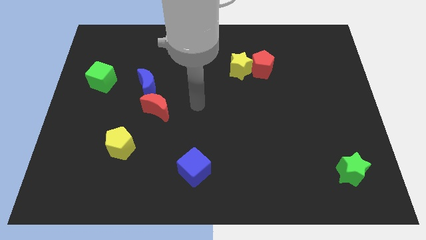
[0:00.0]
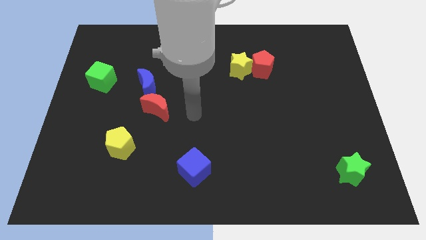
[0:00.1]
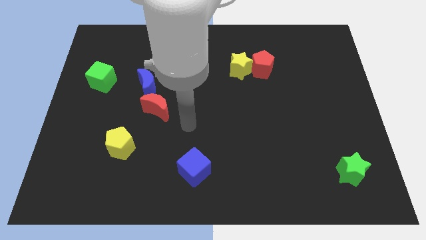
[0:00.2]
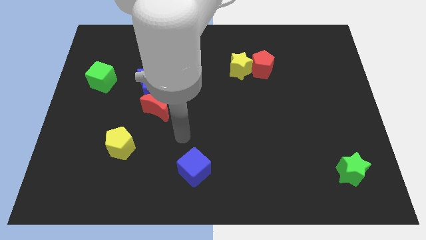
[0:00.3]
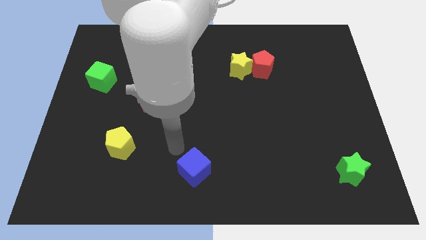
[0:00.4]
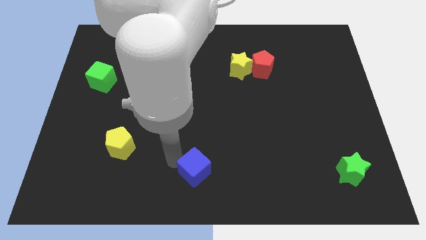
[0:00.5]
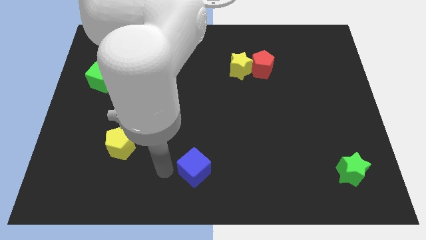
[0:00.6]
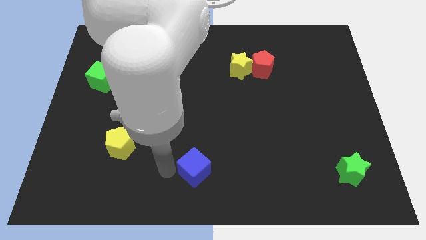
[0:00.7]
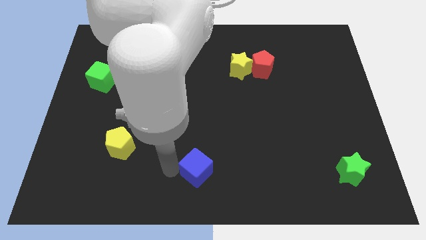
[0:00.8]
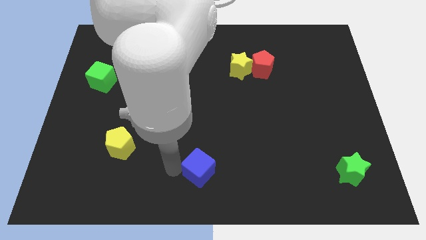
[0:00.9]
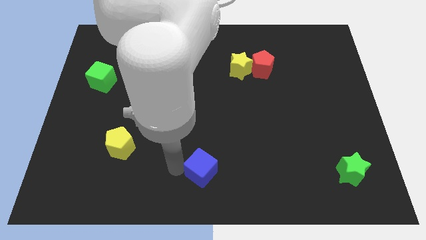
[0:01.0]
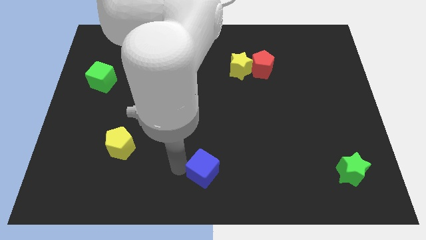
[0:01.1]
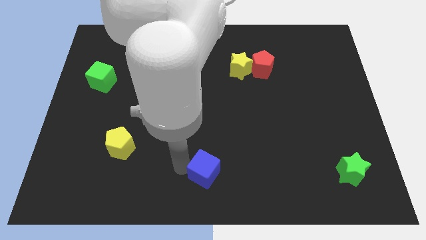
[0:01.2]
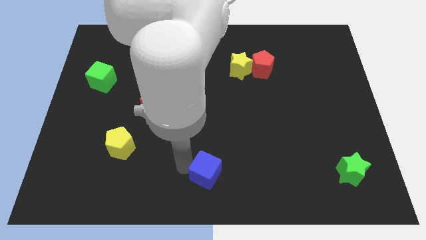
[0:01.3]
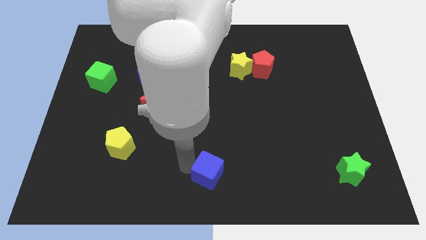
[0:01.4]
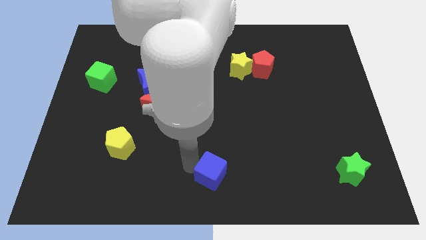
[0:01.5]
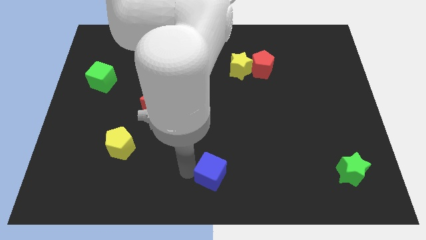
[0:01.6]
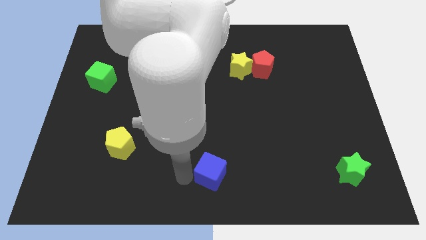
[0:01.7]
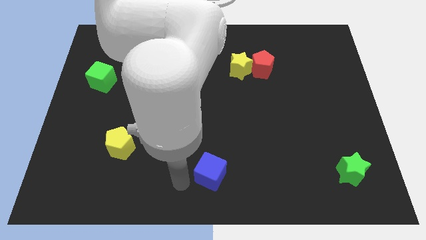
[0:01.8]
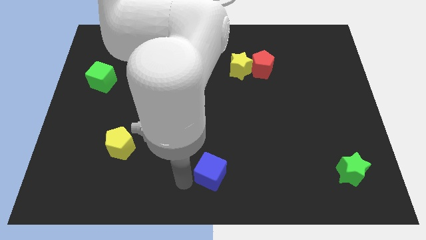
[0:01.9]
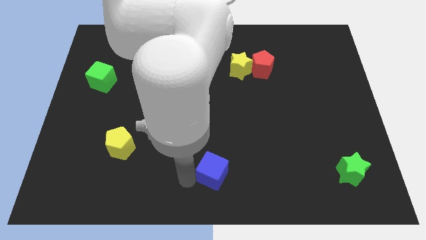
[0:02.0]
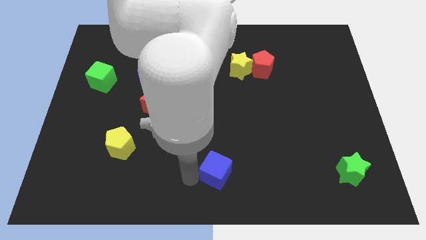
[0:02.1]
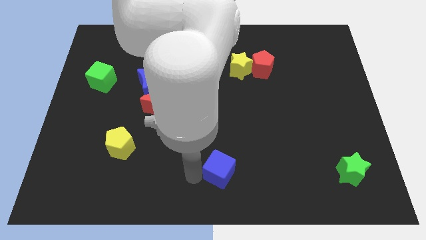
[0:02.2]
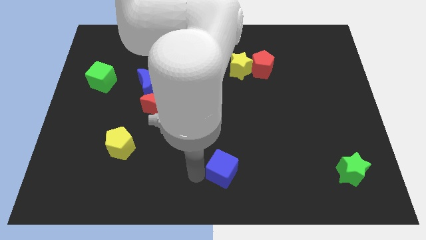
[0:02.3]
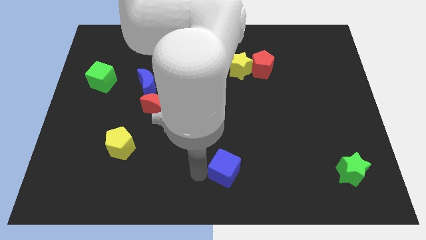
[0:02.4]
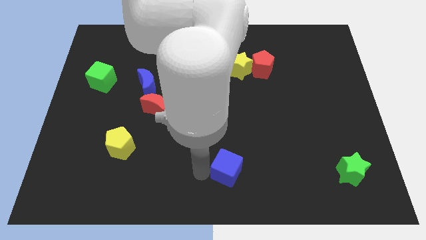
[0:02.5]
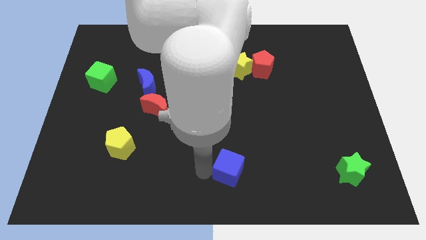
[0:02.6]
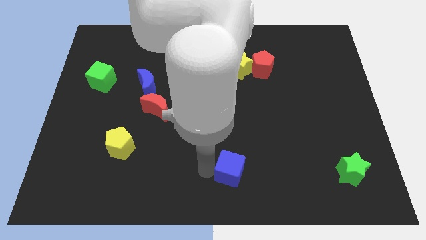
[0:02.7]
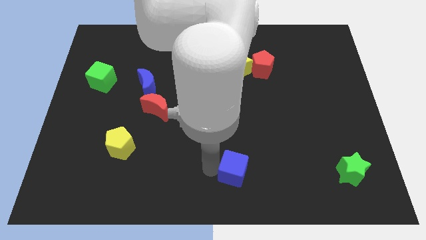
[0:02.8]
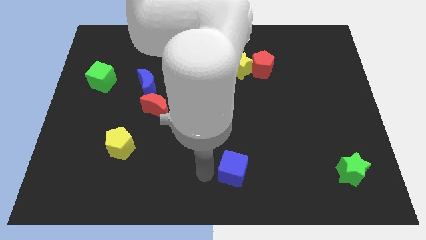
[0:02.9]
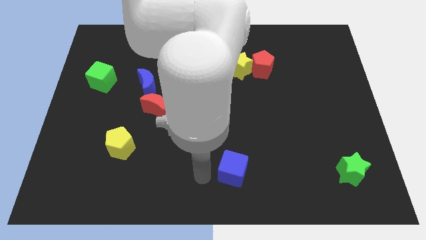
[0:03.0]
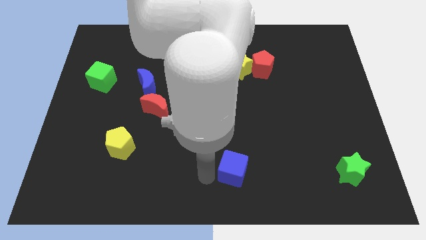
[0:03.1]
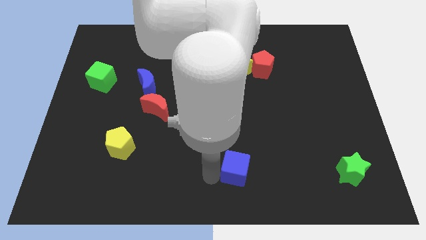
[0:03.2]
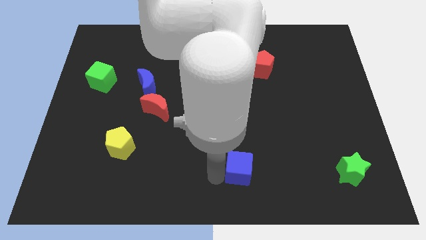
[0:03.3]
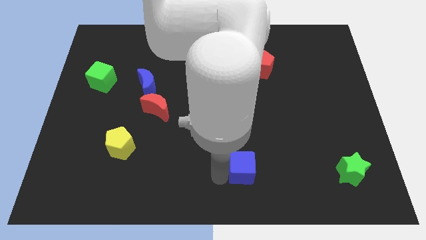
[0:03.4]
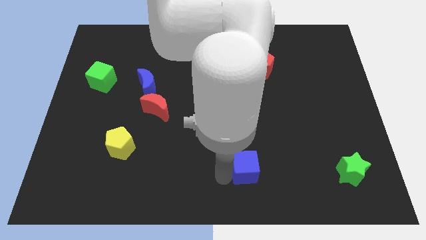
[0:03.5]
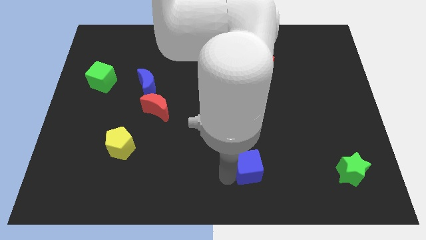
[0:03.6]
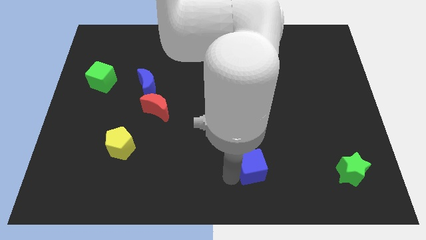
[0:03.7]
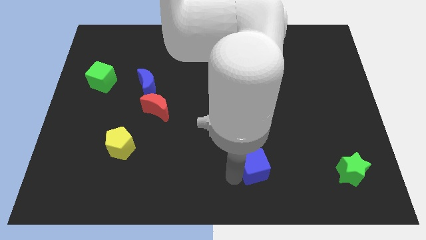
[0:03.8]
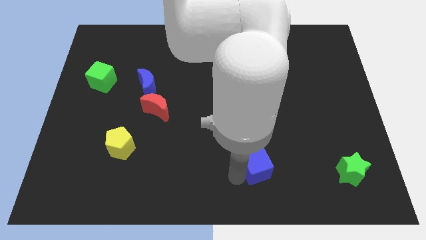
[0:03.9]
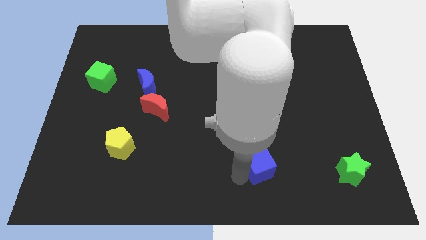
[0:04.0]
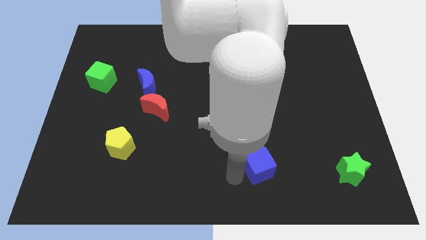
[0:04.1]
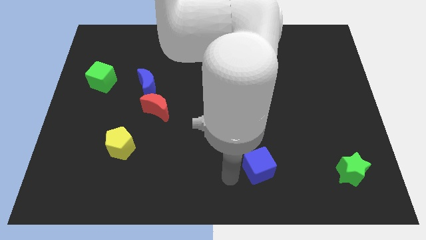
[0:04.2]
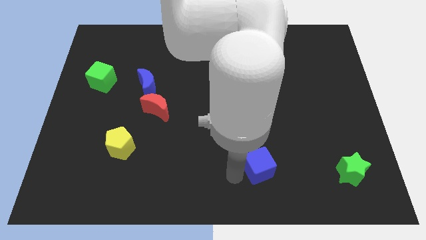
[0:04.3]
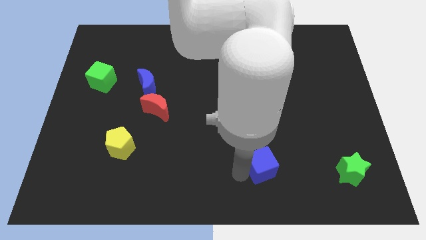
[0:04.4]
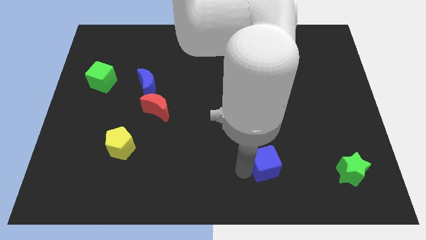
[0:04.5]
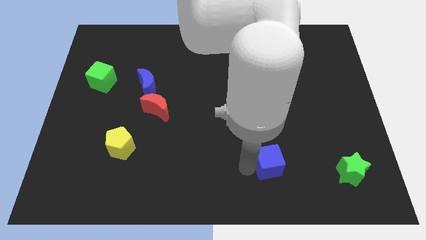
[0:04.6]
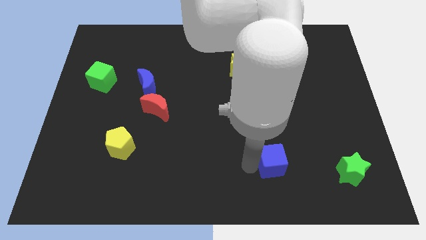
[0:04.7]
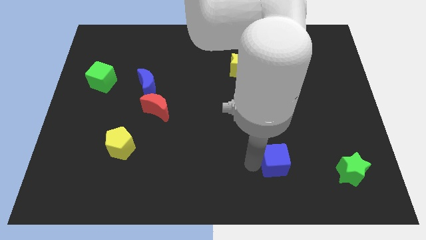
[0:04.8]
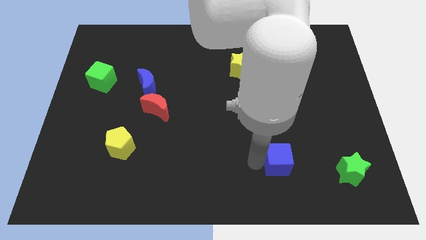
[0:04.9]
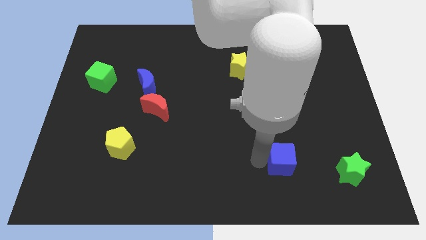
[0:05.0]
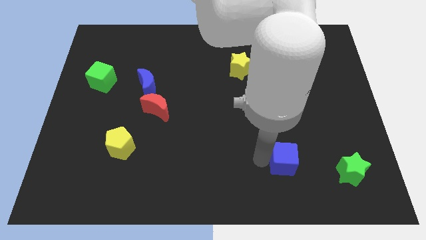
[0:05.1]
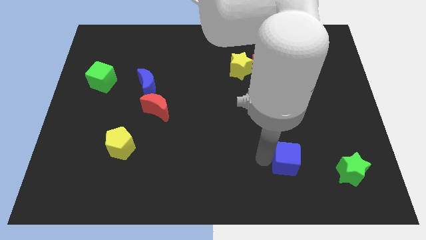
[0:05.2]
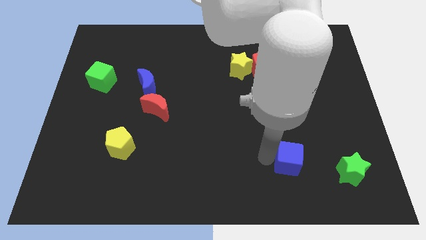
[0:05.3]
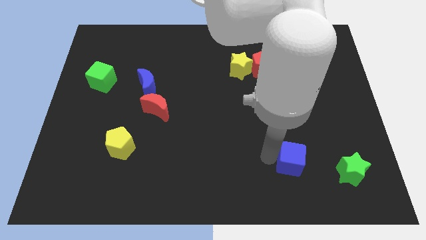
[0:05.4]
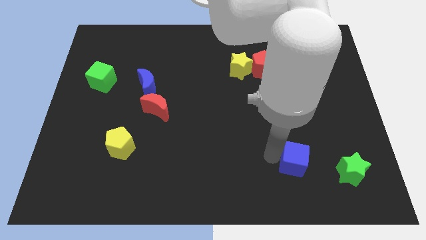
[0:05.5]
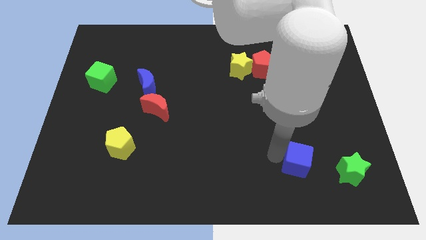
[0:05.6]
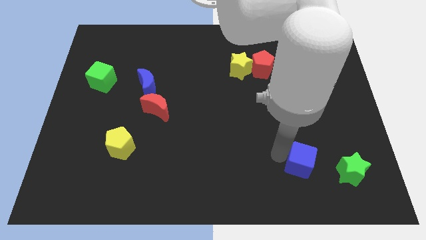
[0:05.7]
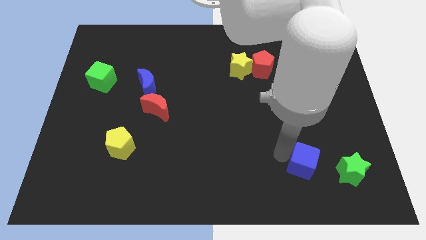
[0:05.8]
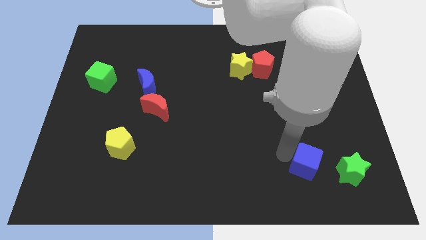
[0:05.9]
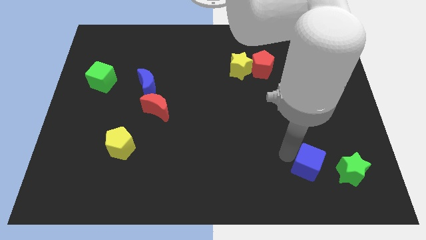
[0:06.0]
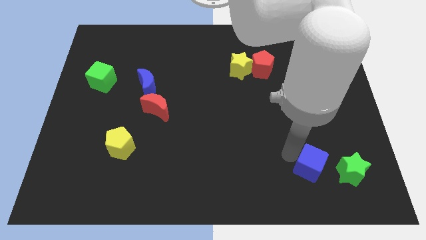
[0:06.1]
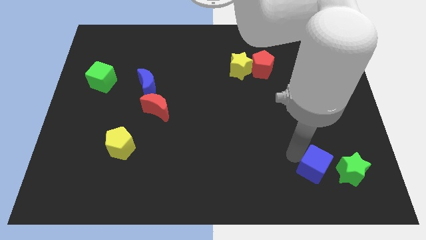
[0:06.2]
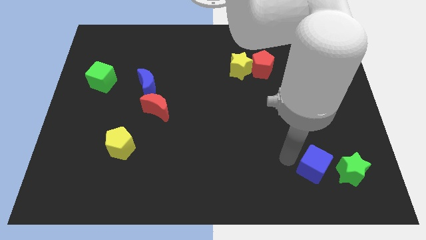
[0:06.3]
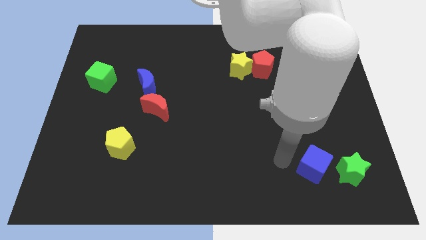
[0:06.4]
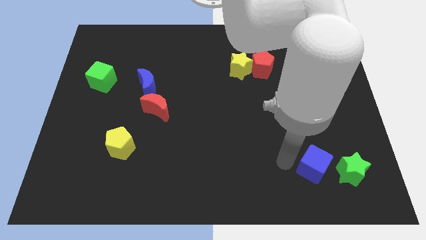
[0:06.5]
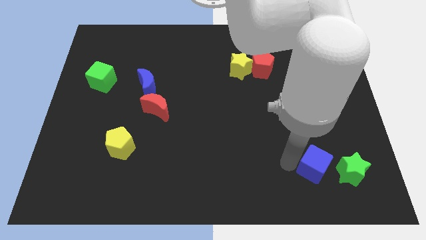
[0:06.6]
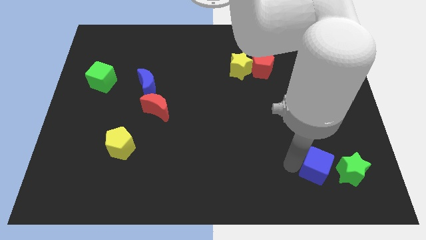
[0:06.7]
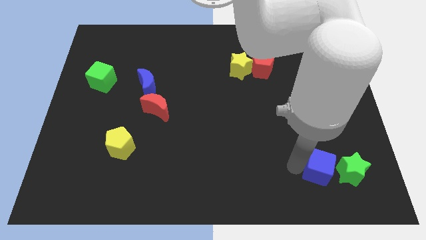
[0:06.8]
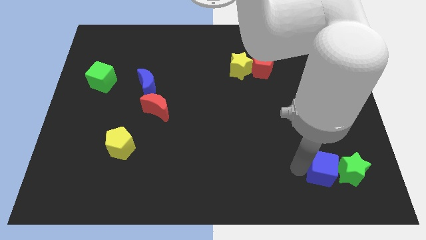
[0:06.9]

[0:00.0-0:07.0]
slide the blue cube close to the green star
